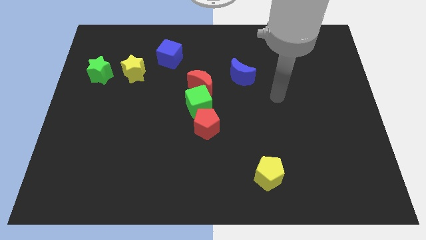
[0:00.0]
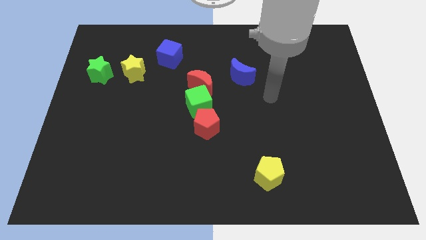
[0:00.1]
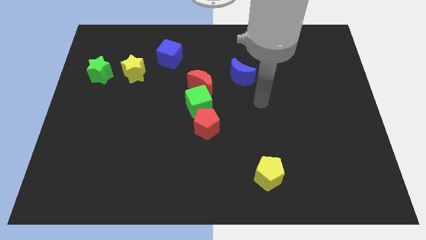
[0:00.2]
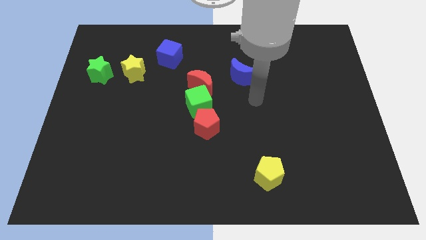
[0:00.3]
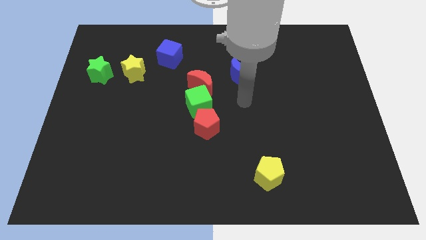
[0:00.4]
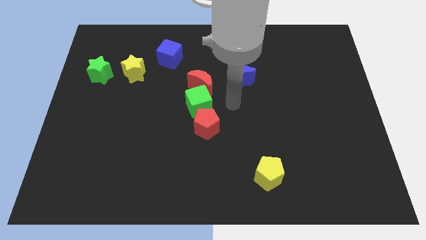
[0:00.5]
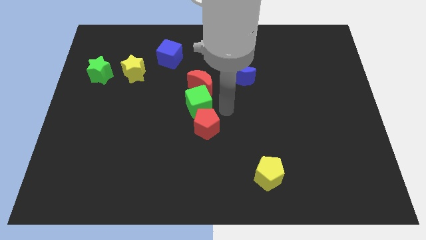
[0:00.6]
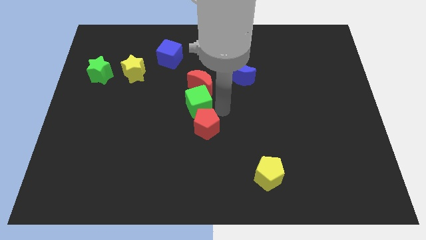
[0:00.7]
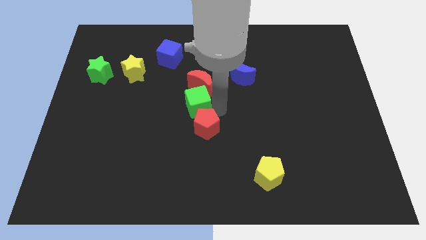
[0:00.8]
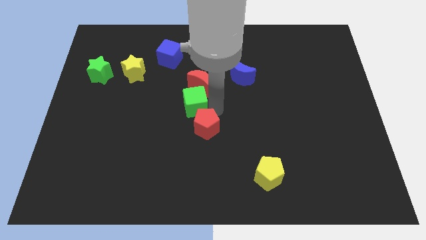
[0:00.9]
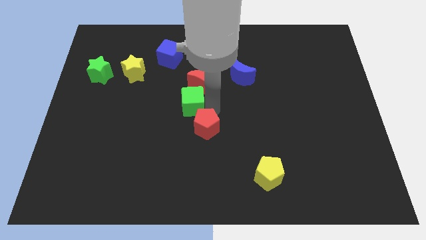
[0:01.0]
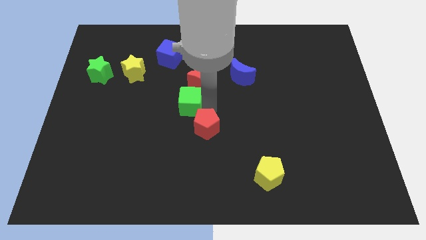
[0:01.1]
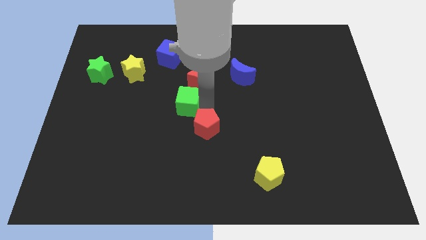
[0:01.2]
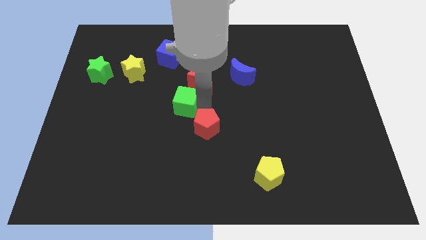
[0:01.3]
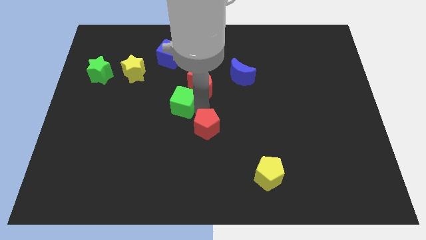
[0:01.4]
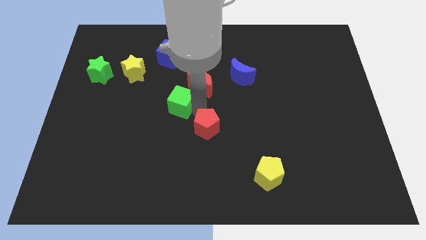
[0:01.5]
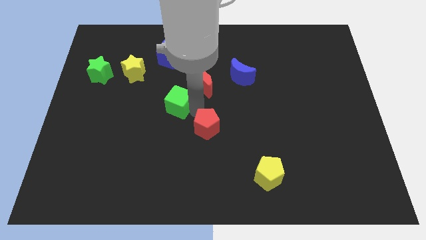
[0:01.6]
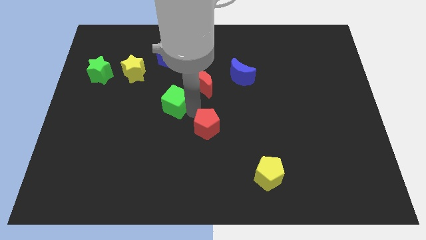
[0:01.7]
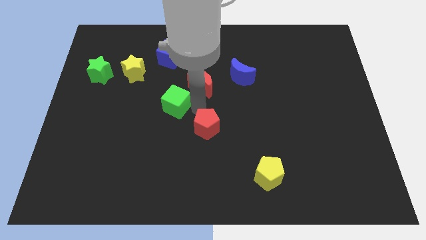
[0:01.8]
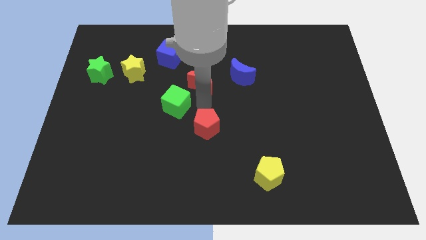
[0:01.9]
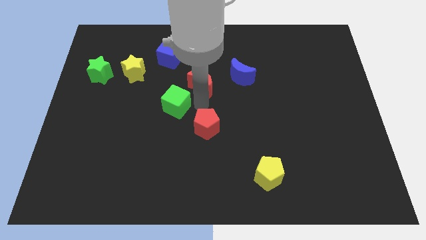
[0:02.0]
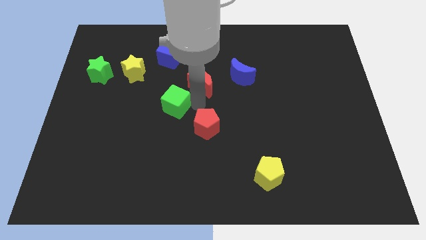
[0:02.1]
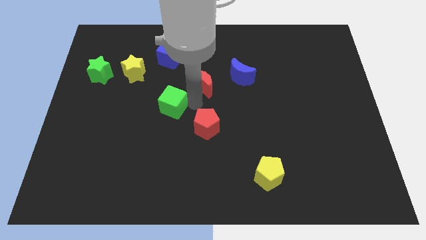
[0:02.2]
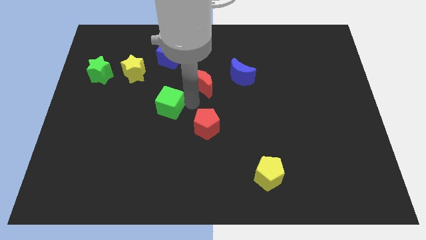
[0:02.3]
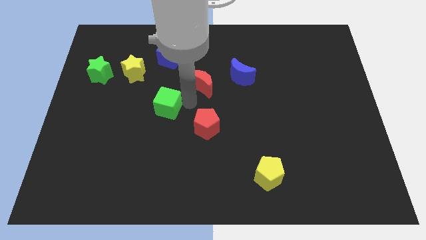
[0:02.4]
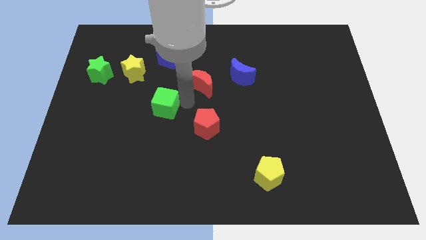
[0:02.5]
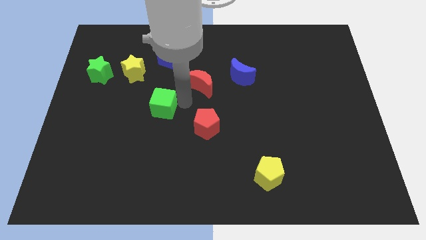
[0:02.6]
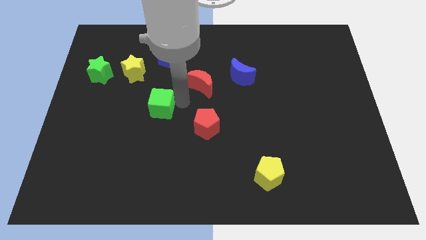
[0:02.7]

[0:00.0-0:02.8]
move the green cube away from the red moon and red pentagon

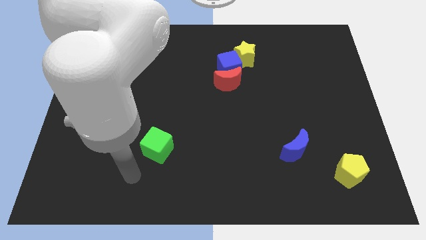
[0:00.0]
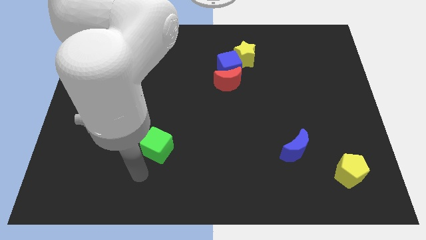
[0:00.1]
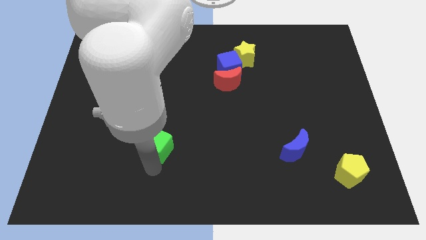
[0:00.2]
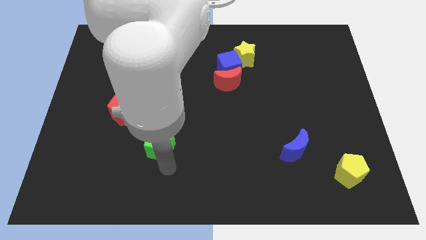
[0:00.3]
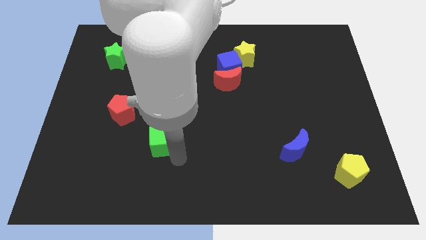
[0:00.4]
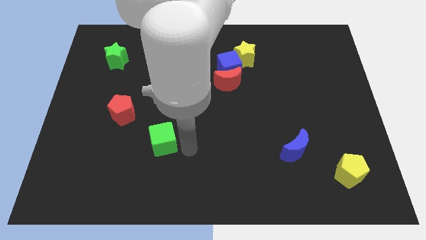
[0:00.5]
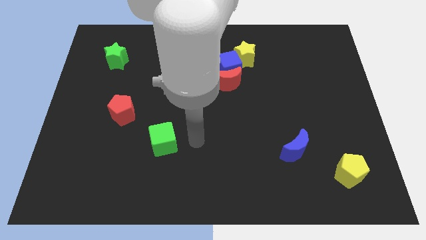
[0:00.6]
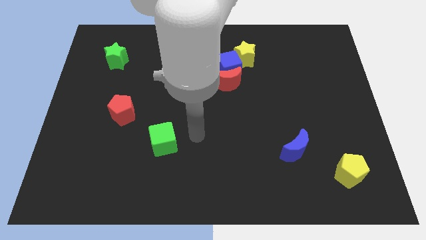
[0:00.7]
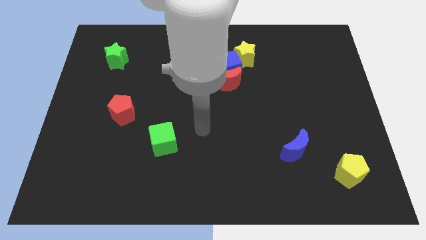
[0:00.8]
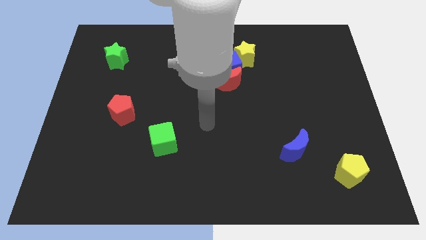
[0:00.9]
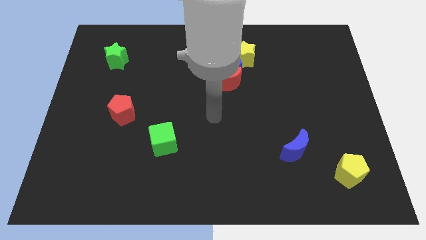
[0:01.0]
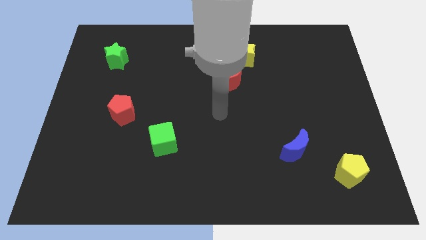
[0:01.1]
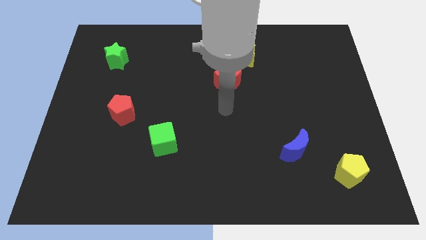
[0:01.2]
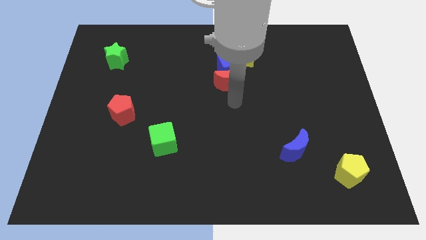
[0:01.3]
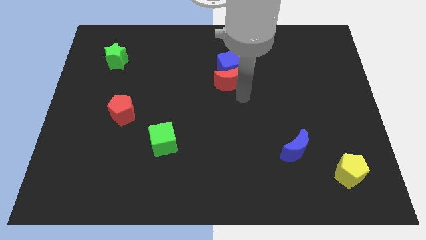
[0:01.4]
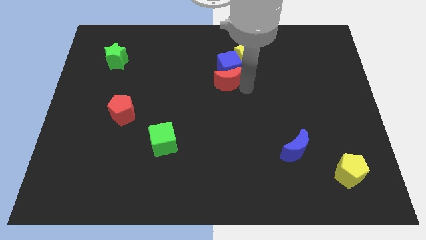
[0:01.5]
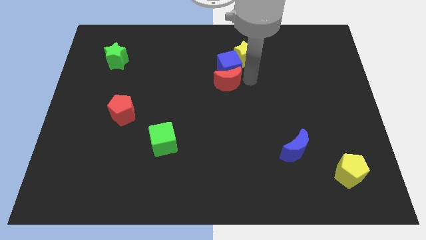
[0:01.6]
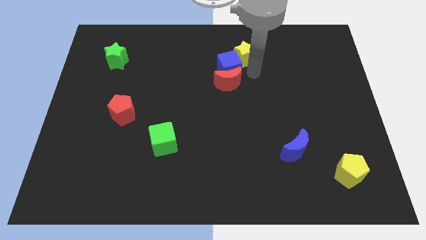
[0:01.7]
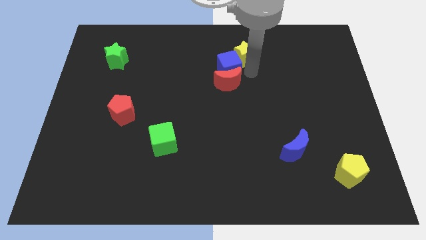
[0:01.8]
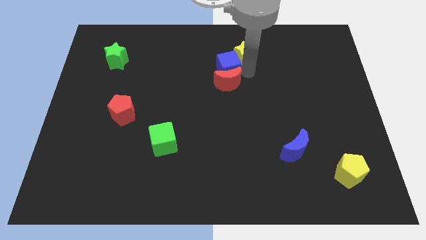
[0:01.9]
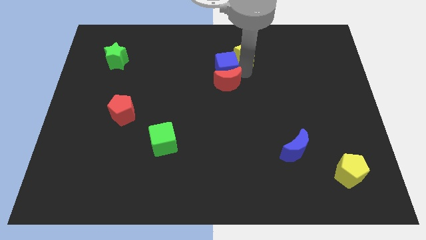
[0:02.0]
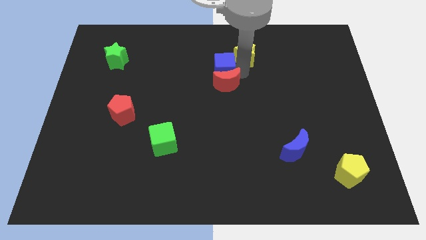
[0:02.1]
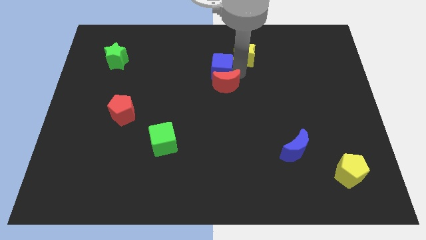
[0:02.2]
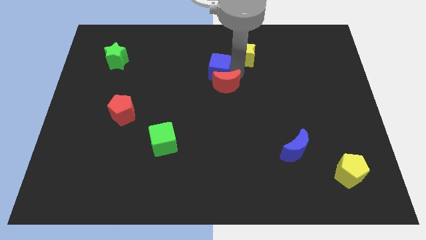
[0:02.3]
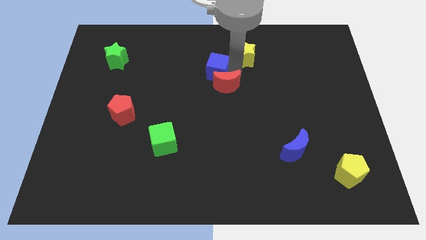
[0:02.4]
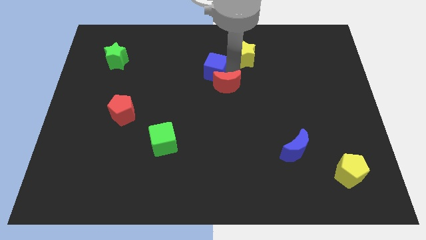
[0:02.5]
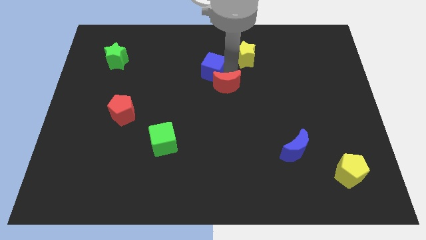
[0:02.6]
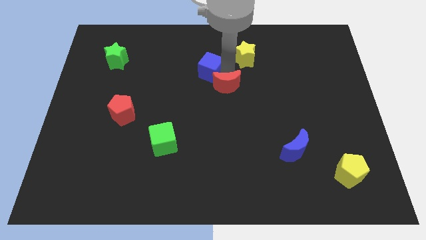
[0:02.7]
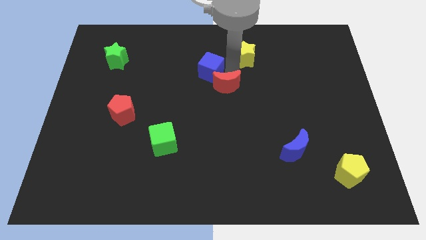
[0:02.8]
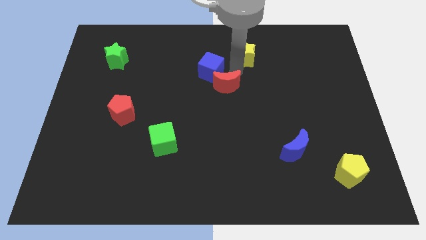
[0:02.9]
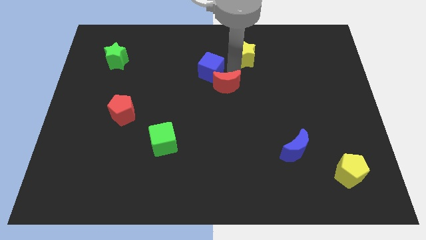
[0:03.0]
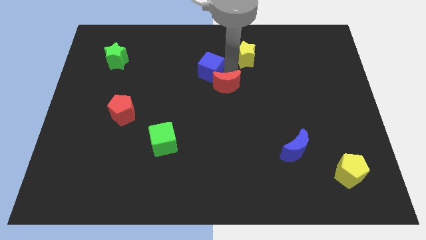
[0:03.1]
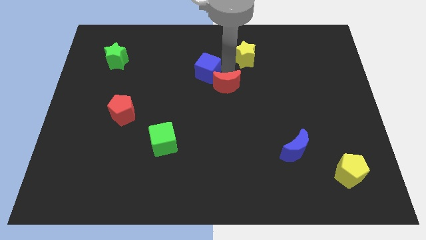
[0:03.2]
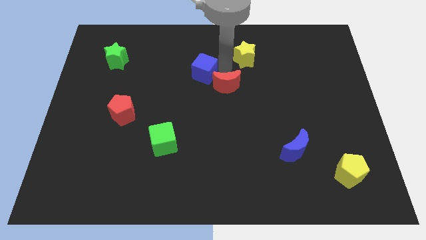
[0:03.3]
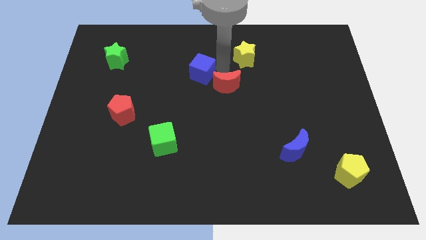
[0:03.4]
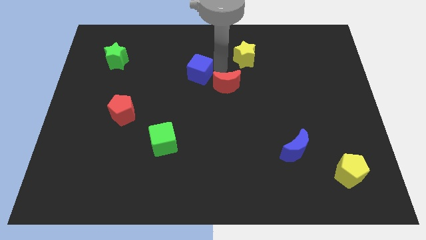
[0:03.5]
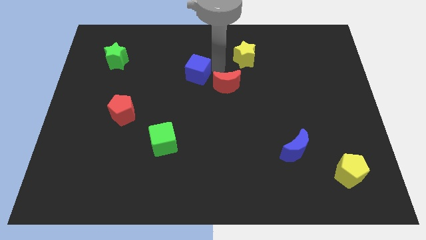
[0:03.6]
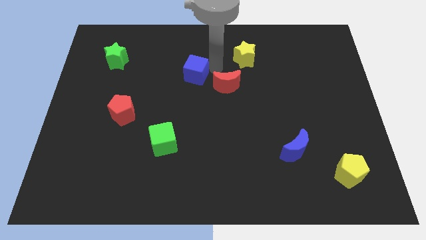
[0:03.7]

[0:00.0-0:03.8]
move the blue cube away from the red moon and yellow star

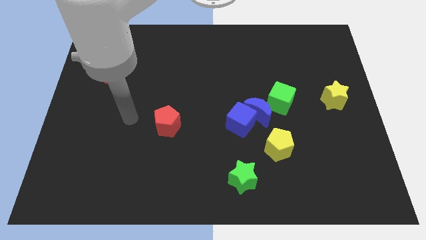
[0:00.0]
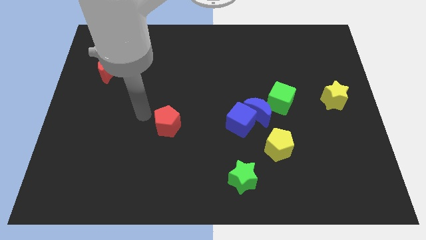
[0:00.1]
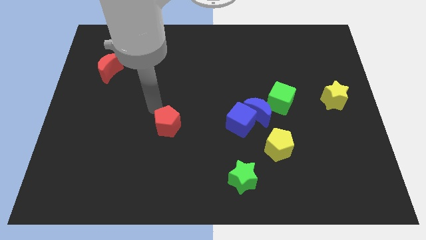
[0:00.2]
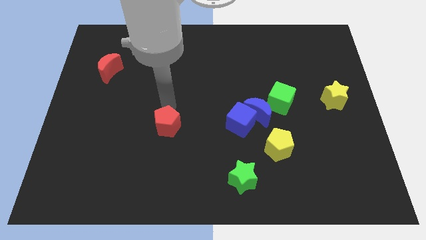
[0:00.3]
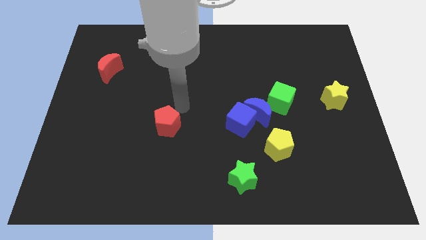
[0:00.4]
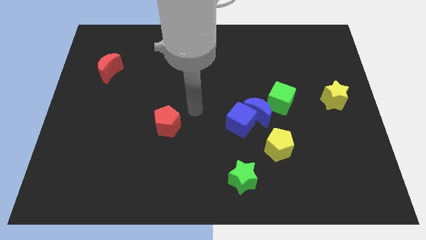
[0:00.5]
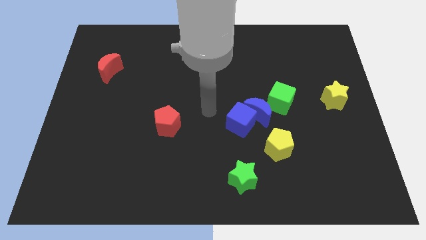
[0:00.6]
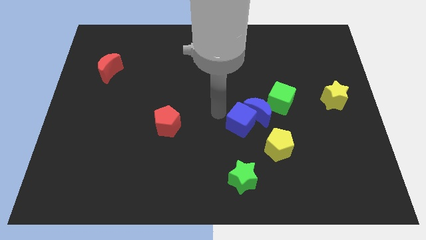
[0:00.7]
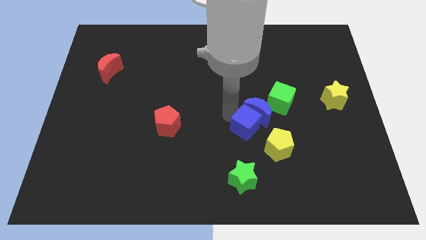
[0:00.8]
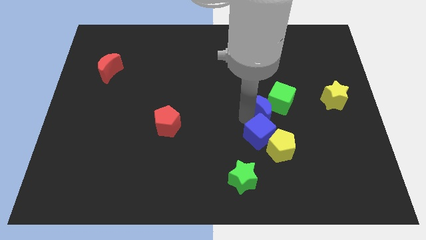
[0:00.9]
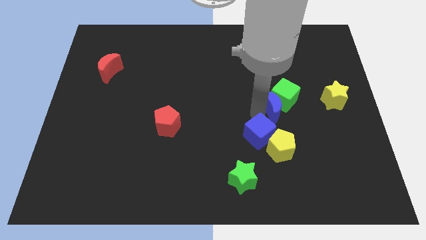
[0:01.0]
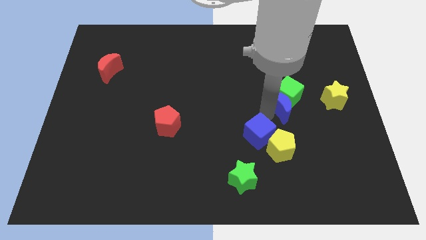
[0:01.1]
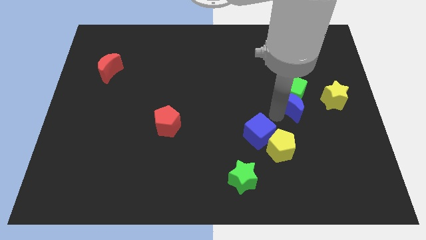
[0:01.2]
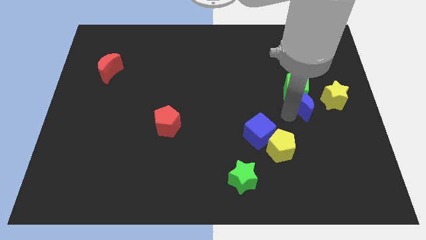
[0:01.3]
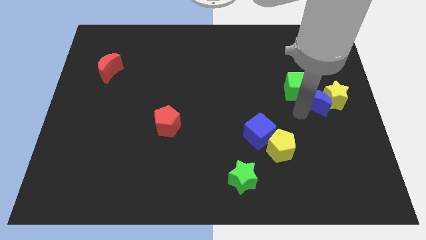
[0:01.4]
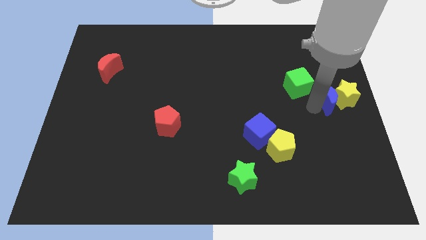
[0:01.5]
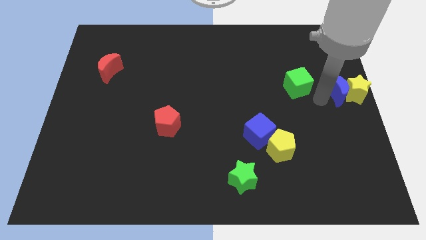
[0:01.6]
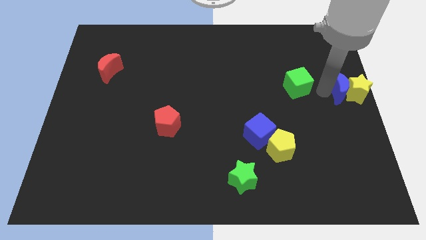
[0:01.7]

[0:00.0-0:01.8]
separate the green cube from the blue moon

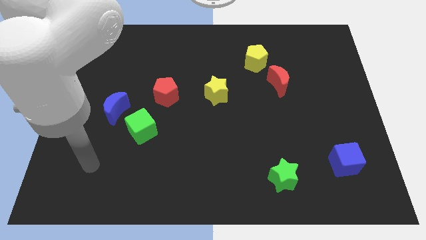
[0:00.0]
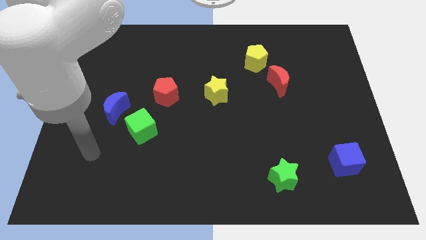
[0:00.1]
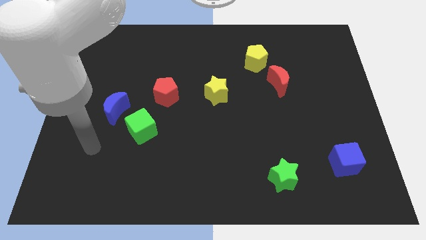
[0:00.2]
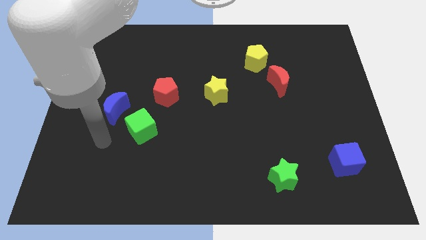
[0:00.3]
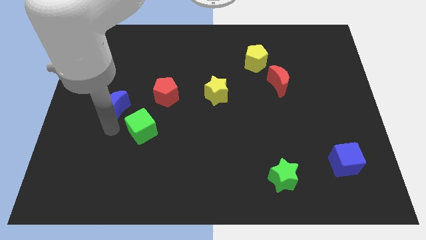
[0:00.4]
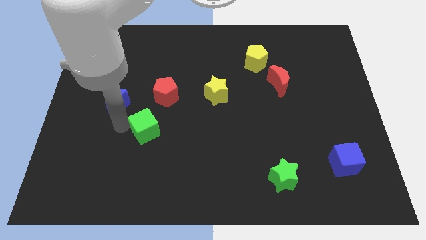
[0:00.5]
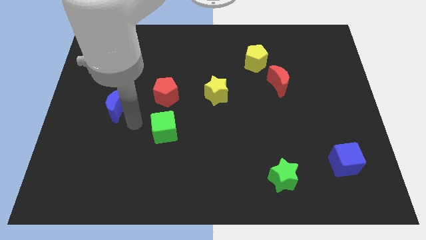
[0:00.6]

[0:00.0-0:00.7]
separate the blue moon from the green cube

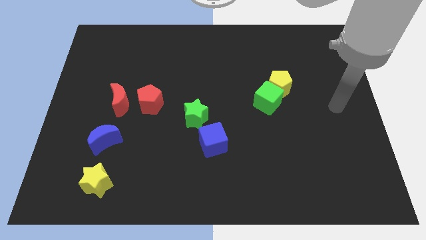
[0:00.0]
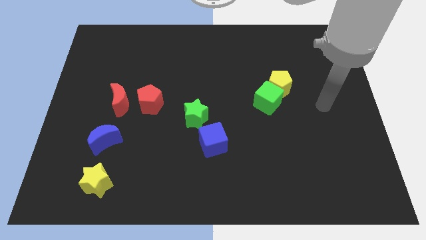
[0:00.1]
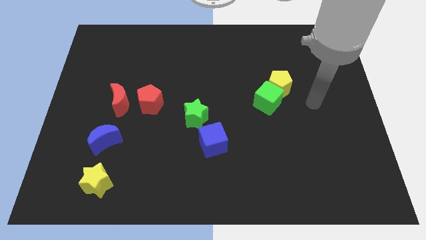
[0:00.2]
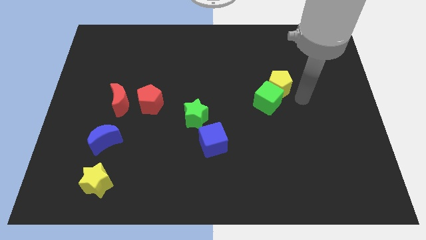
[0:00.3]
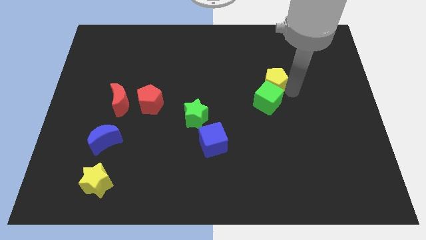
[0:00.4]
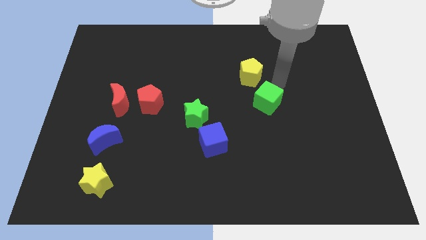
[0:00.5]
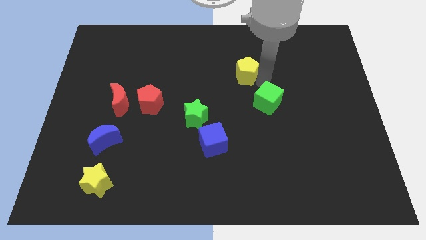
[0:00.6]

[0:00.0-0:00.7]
pull the green cube apart from the yellow pentagon
